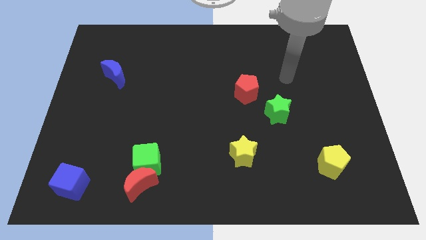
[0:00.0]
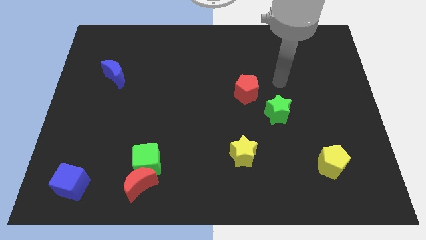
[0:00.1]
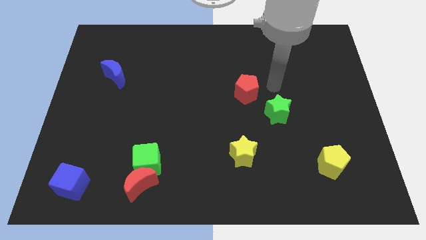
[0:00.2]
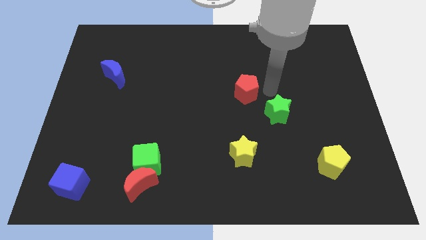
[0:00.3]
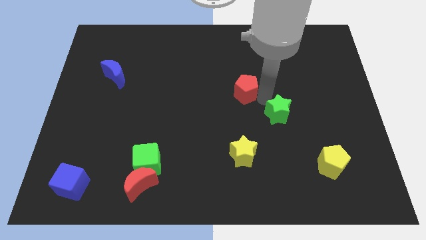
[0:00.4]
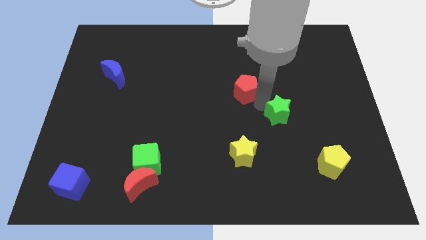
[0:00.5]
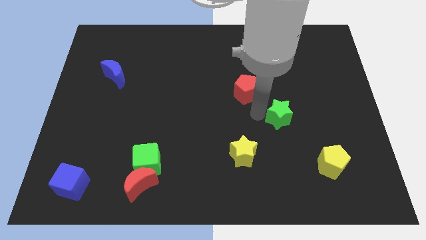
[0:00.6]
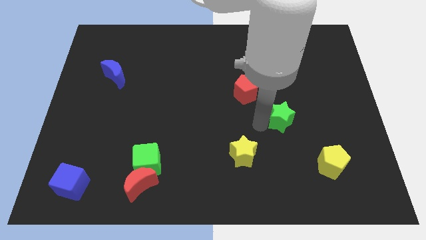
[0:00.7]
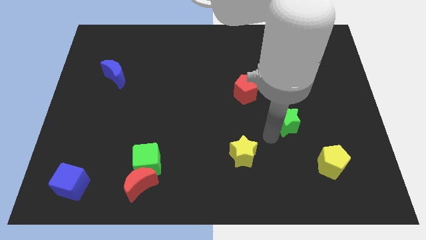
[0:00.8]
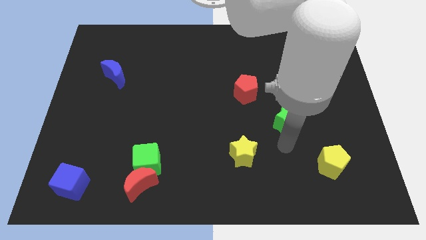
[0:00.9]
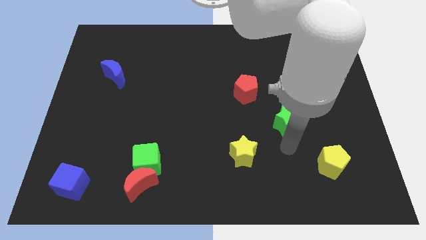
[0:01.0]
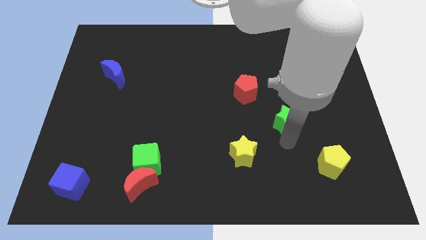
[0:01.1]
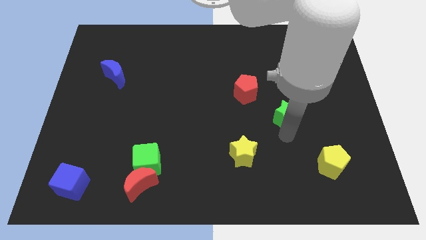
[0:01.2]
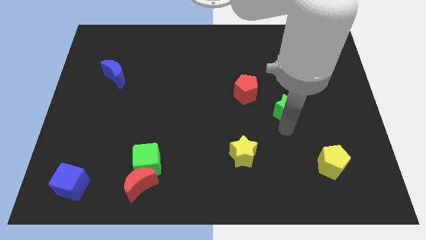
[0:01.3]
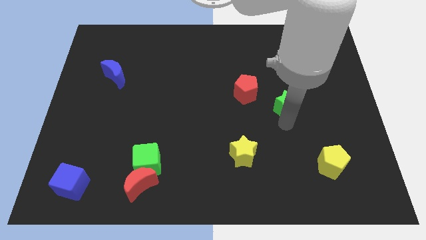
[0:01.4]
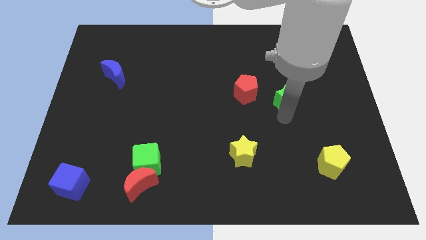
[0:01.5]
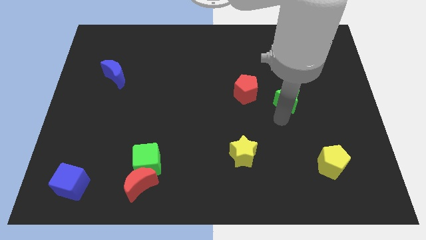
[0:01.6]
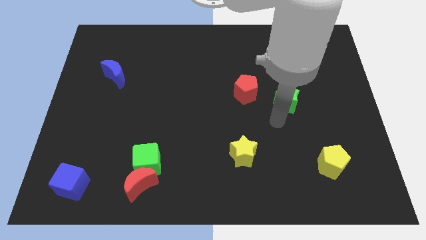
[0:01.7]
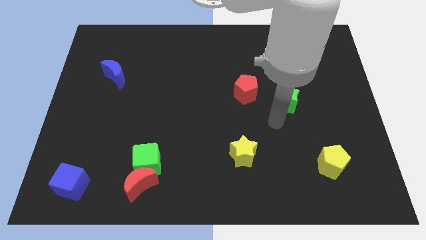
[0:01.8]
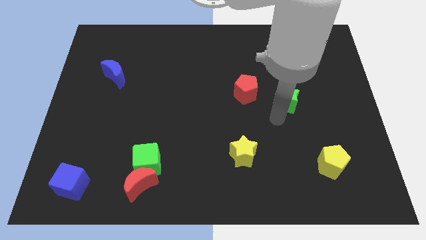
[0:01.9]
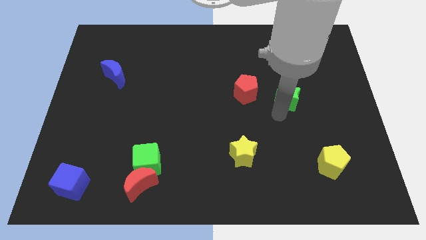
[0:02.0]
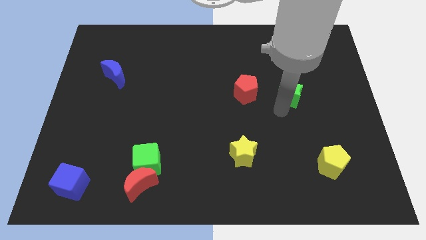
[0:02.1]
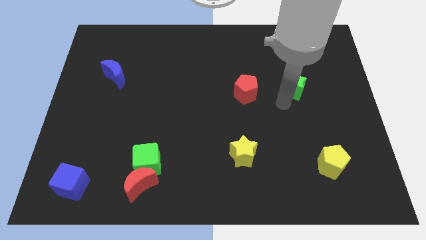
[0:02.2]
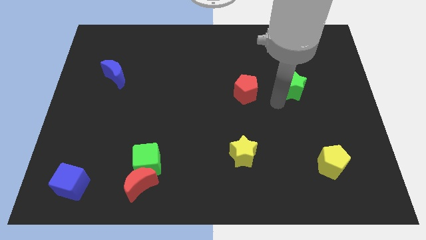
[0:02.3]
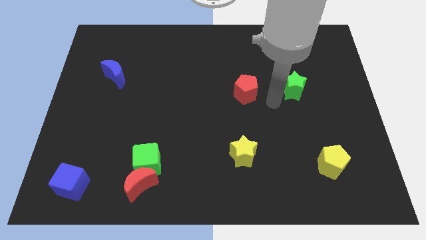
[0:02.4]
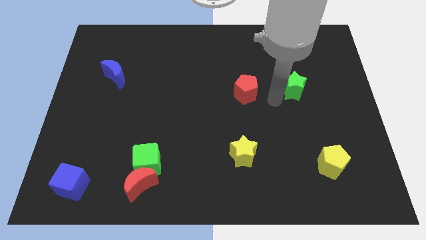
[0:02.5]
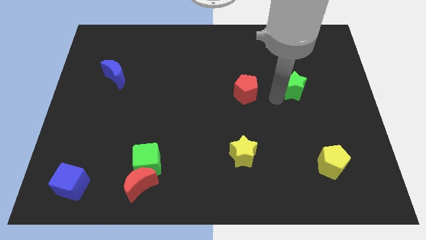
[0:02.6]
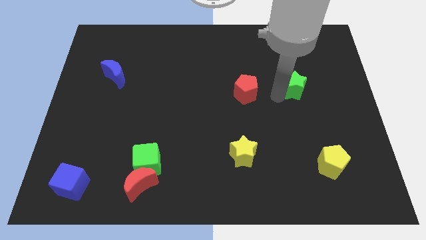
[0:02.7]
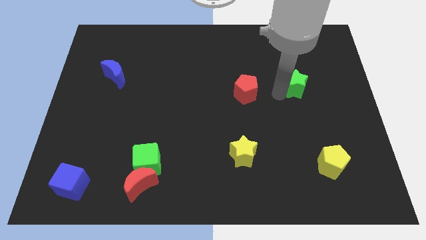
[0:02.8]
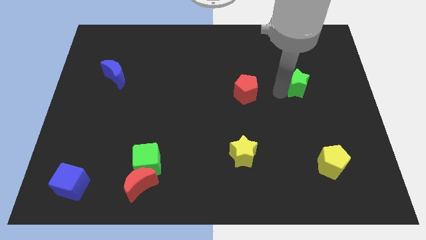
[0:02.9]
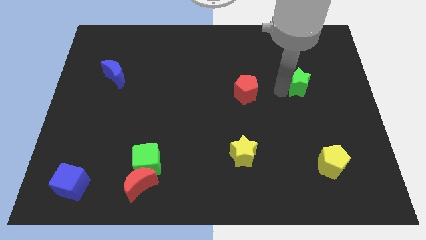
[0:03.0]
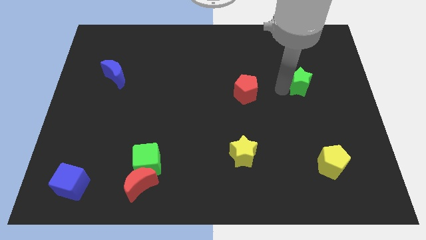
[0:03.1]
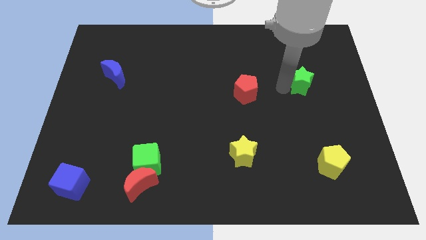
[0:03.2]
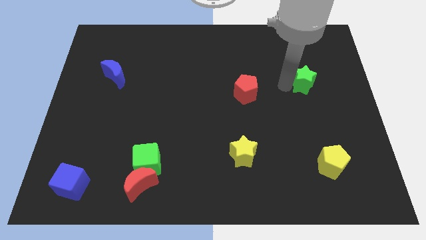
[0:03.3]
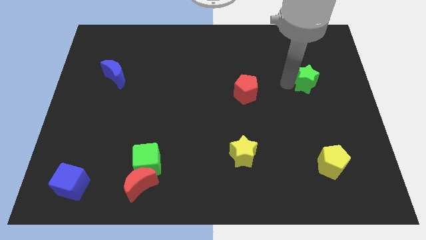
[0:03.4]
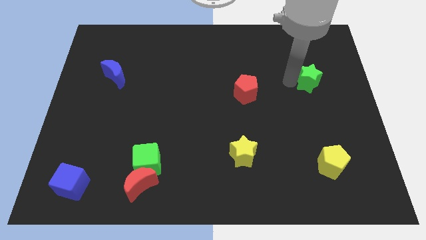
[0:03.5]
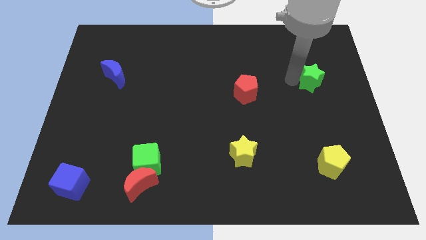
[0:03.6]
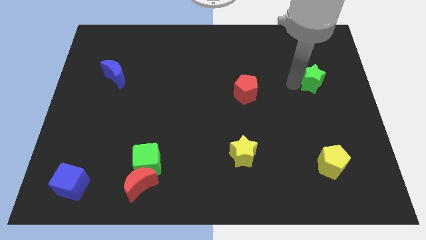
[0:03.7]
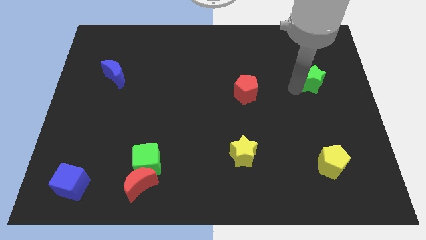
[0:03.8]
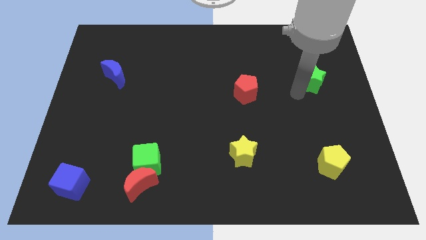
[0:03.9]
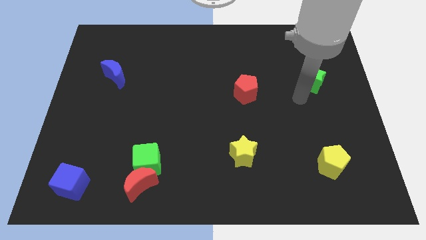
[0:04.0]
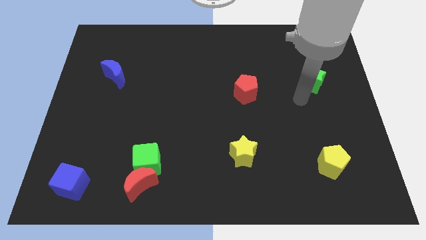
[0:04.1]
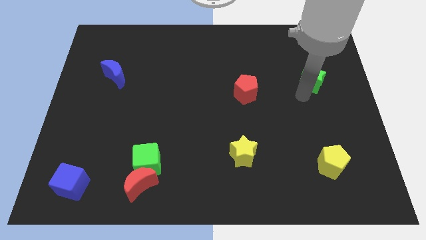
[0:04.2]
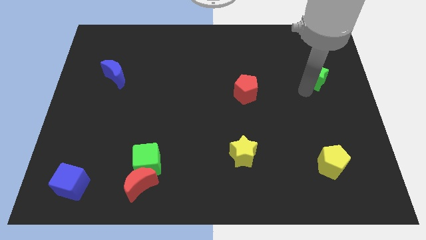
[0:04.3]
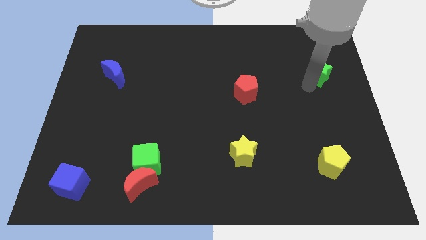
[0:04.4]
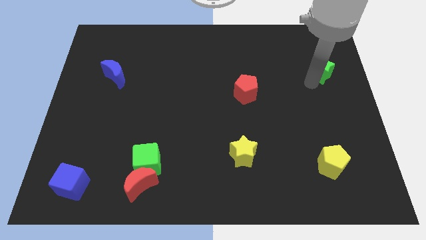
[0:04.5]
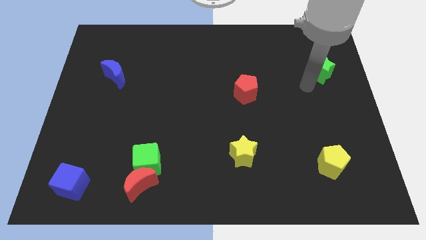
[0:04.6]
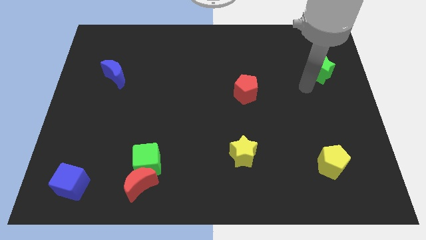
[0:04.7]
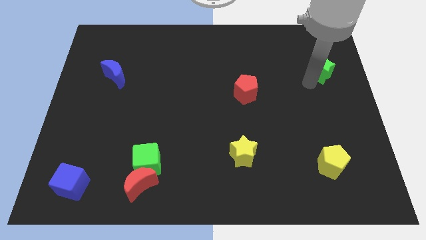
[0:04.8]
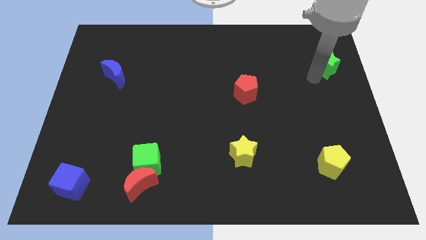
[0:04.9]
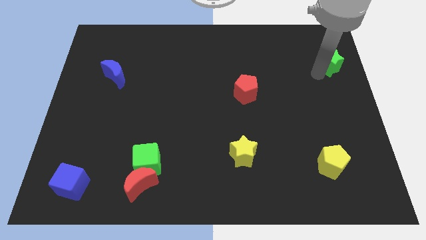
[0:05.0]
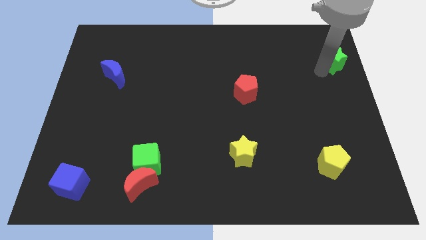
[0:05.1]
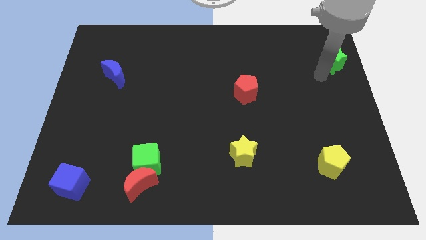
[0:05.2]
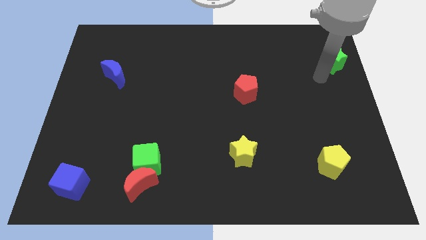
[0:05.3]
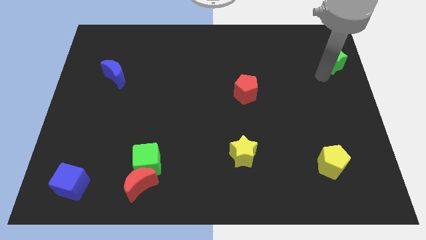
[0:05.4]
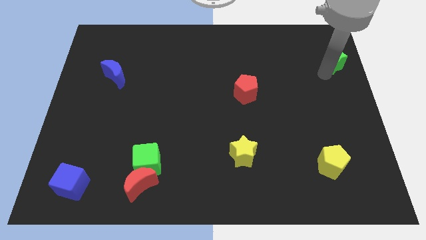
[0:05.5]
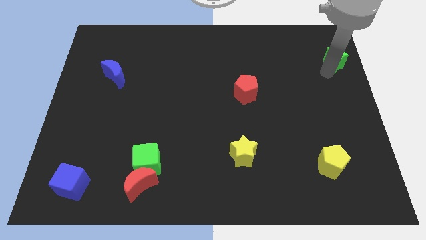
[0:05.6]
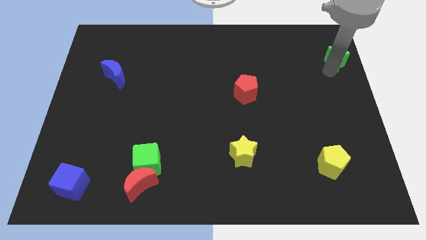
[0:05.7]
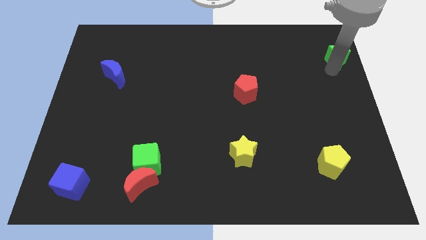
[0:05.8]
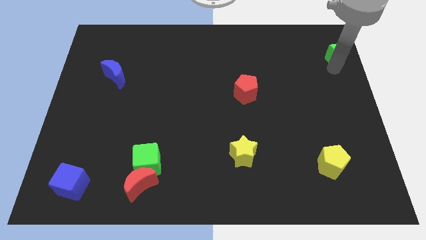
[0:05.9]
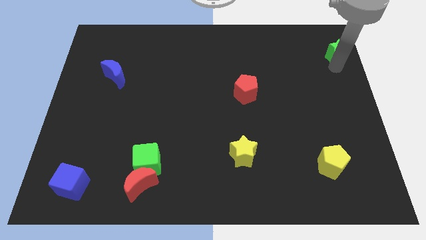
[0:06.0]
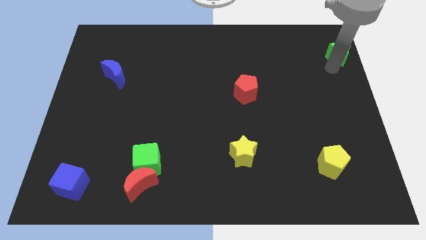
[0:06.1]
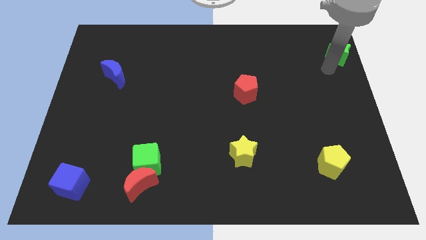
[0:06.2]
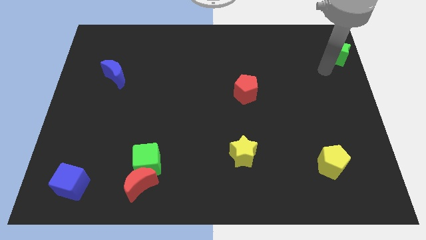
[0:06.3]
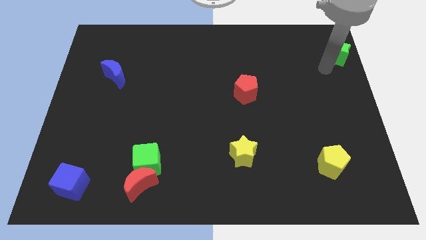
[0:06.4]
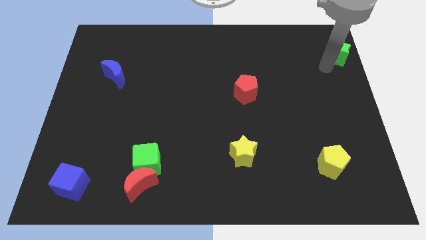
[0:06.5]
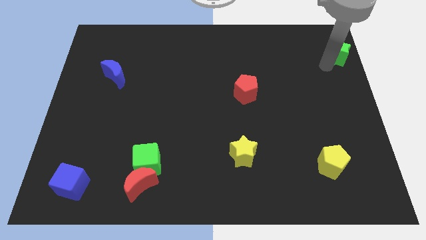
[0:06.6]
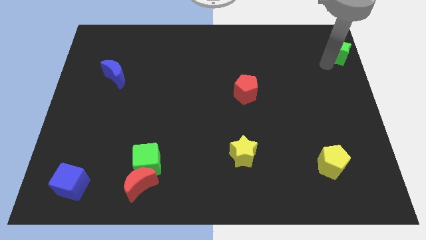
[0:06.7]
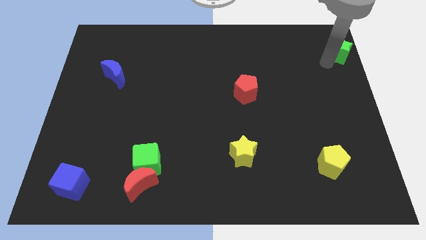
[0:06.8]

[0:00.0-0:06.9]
put the green star to the top right corner

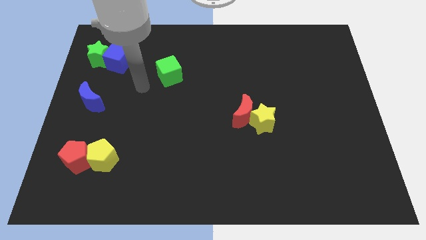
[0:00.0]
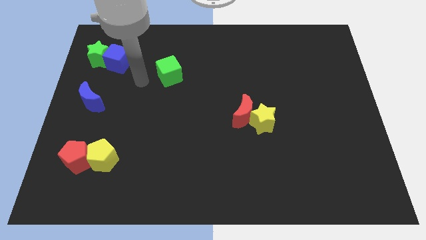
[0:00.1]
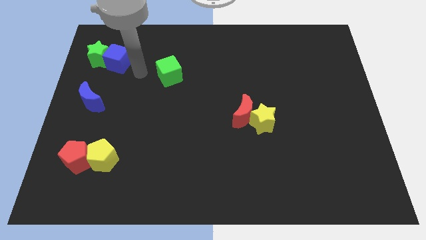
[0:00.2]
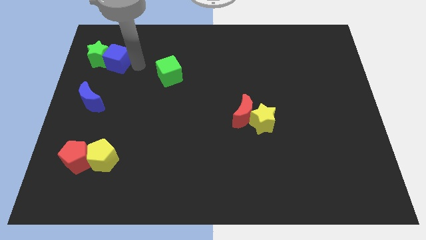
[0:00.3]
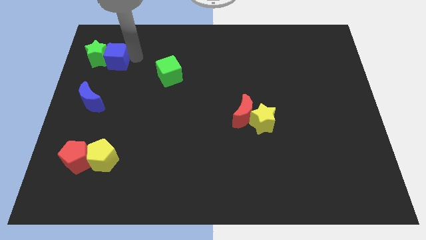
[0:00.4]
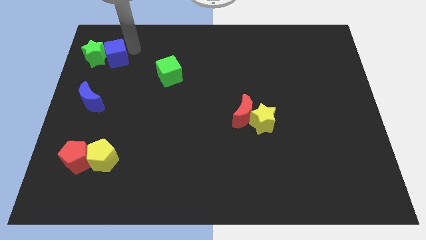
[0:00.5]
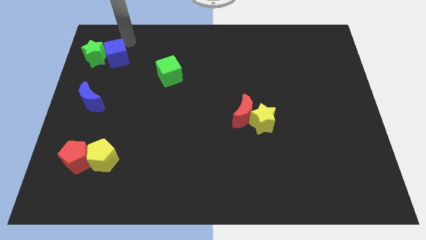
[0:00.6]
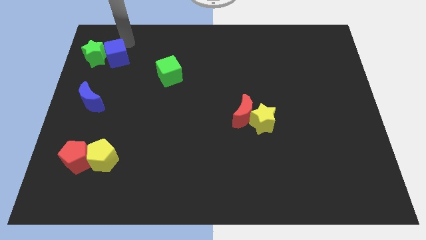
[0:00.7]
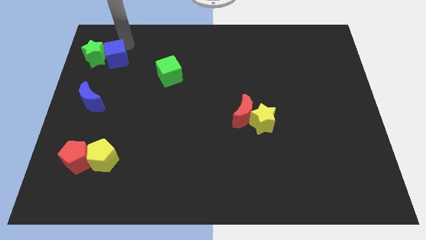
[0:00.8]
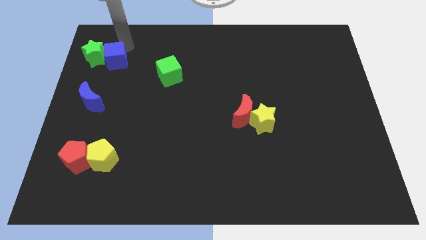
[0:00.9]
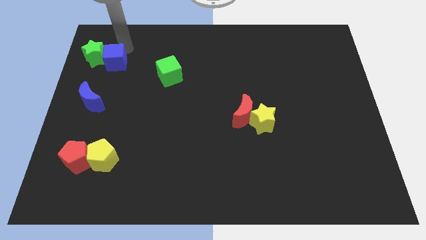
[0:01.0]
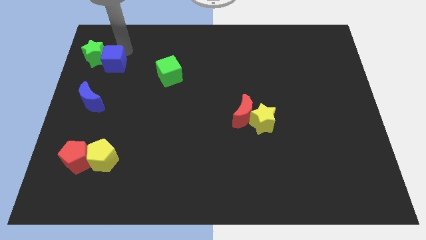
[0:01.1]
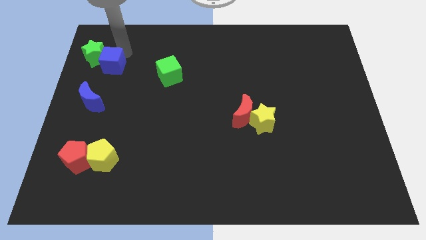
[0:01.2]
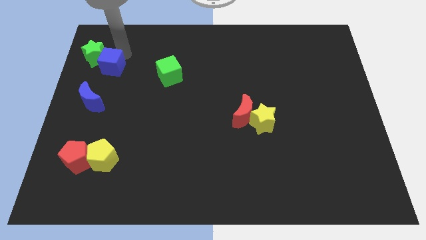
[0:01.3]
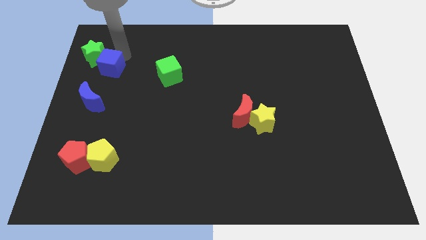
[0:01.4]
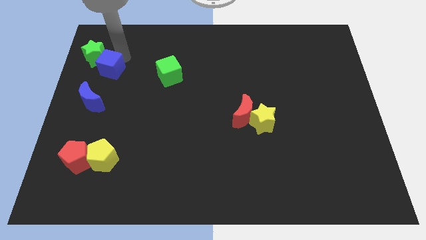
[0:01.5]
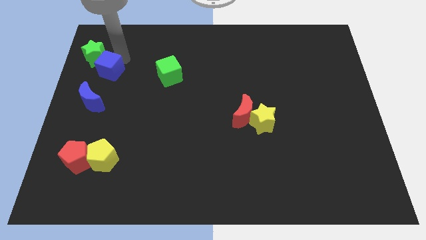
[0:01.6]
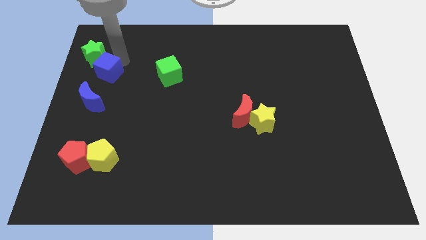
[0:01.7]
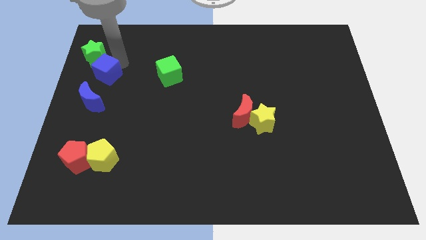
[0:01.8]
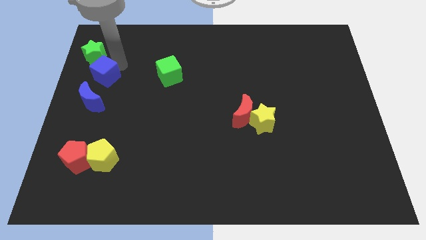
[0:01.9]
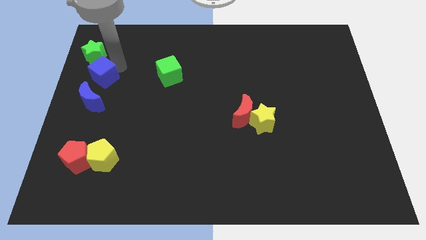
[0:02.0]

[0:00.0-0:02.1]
push the blue cube to the left side of the board
